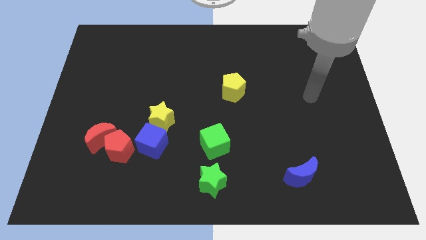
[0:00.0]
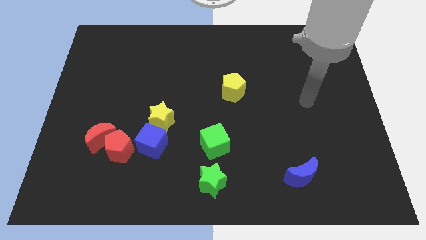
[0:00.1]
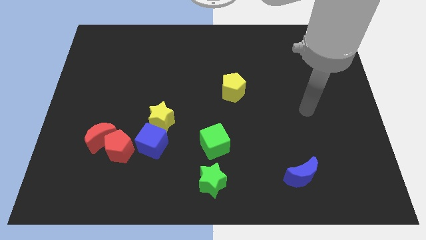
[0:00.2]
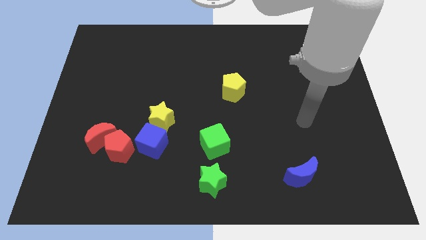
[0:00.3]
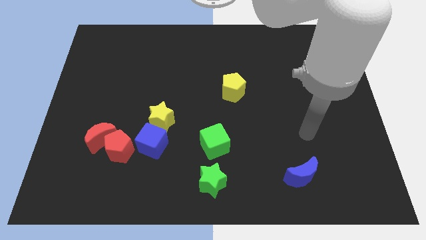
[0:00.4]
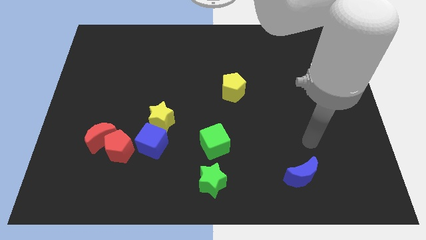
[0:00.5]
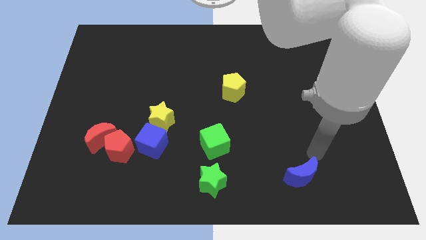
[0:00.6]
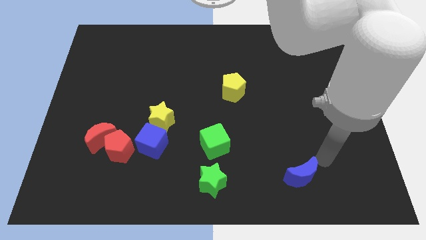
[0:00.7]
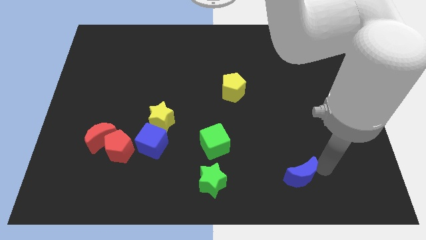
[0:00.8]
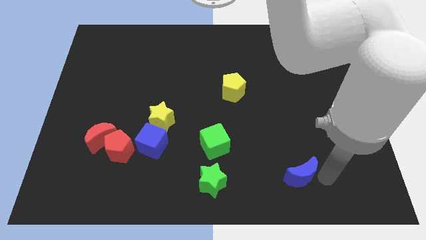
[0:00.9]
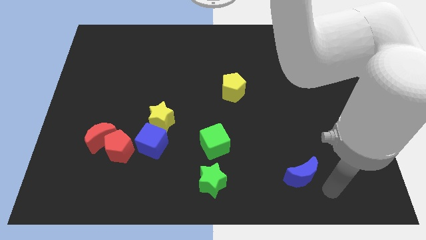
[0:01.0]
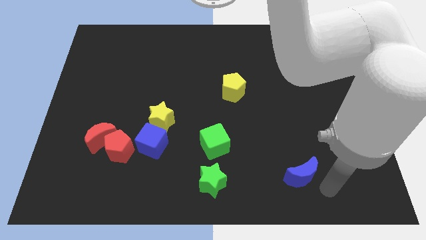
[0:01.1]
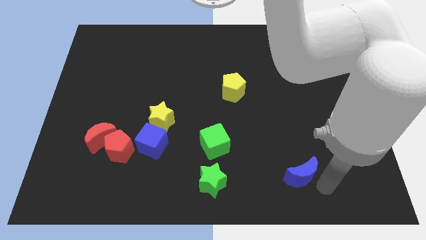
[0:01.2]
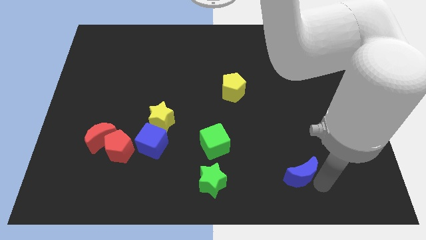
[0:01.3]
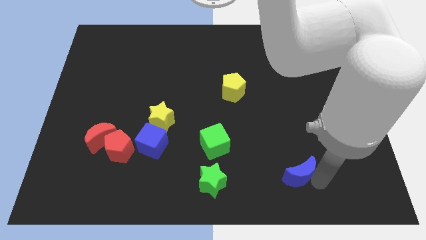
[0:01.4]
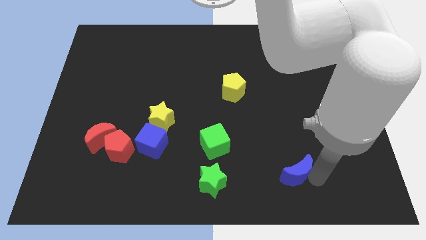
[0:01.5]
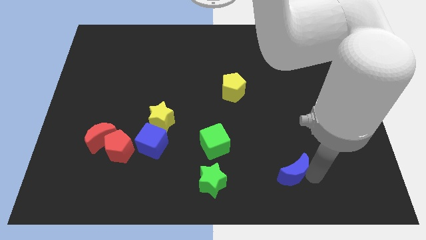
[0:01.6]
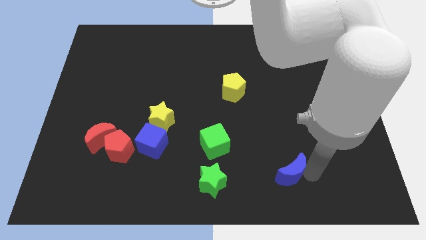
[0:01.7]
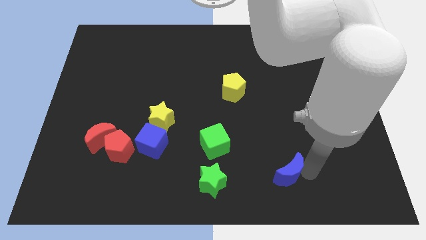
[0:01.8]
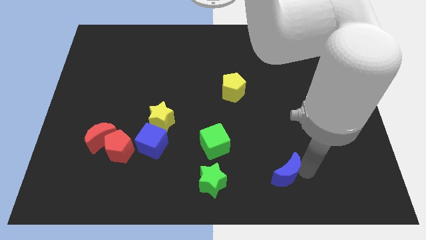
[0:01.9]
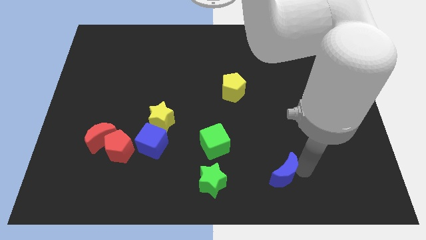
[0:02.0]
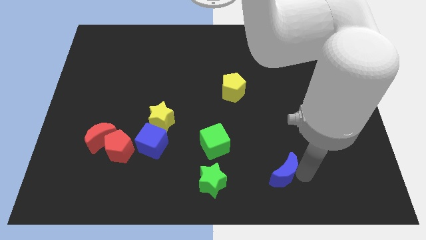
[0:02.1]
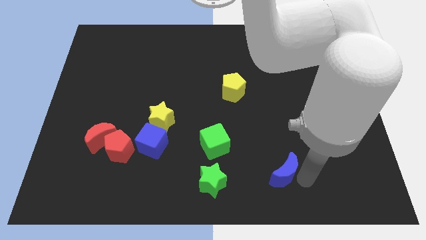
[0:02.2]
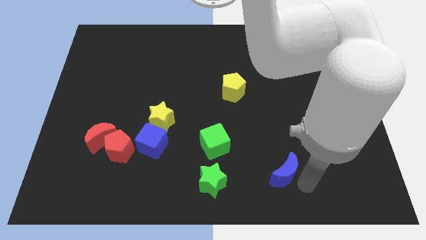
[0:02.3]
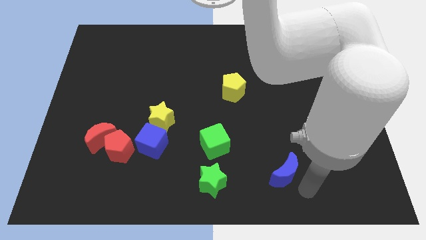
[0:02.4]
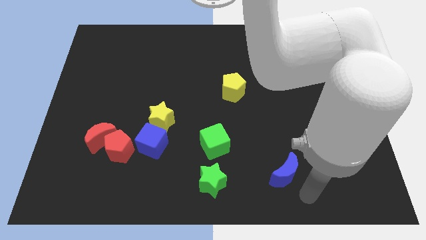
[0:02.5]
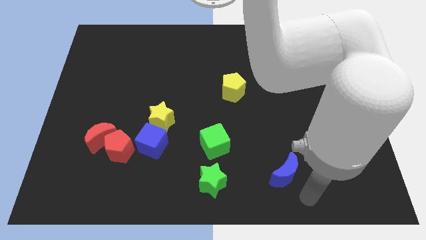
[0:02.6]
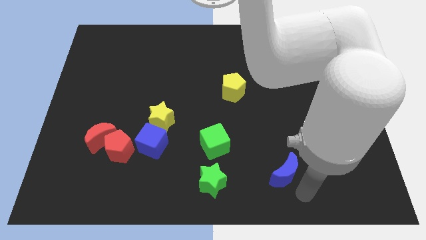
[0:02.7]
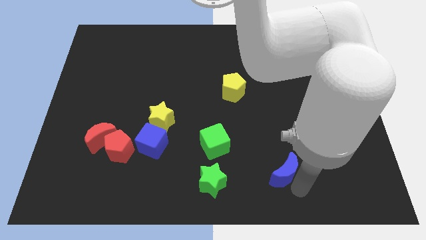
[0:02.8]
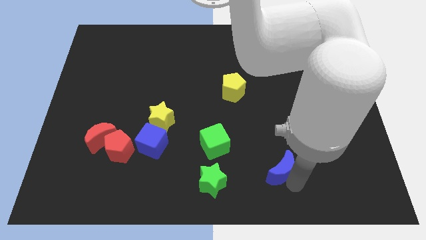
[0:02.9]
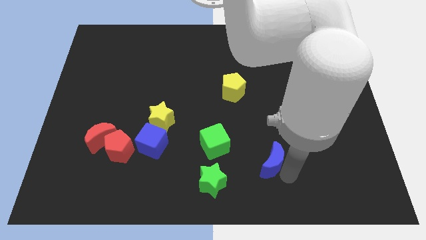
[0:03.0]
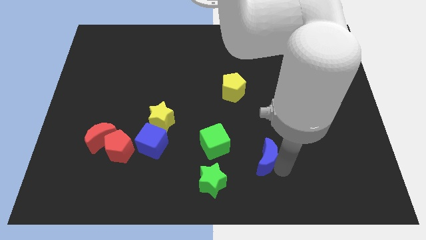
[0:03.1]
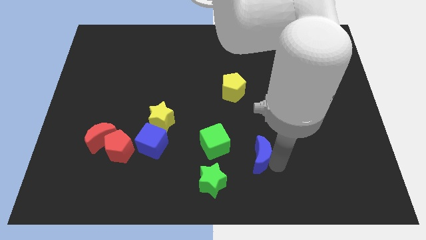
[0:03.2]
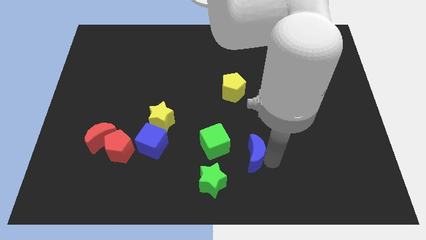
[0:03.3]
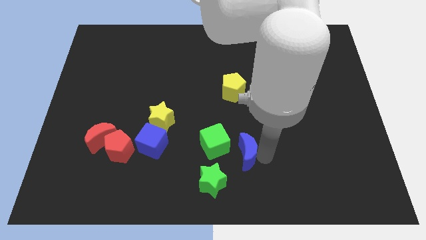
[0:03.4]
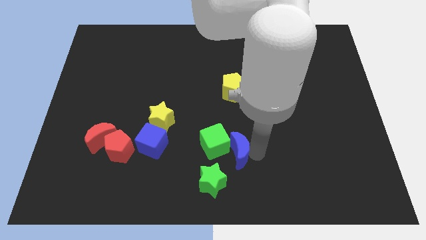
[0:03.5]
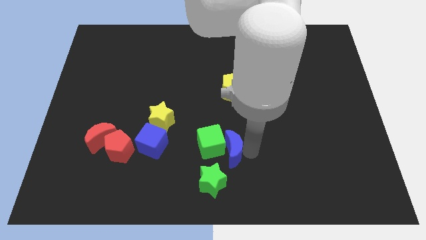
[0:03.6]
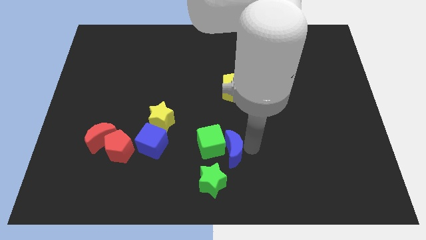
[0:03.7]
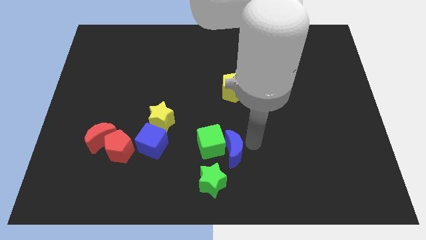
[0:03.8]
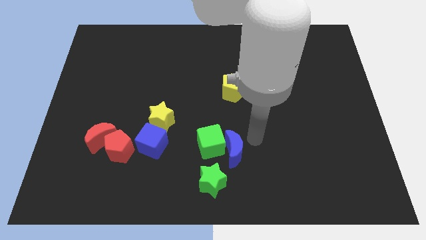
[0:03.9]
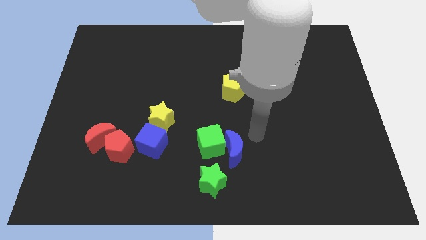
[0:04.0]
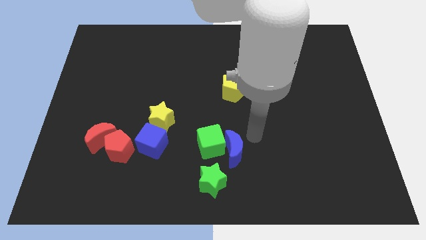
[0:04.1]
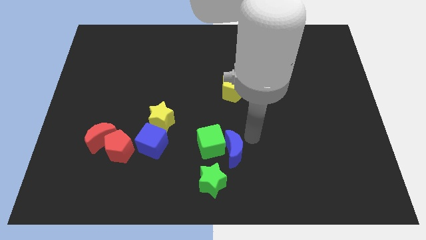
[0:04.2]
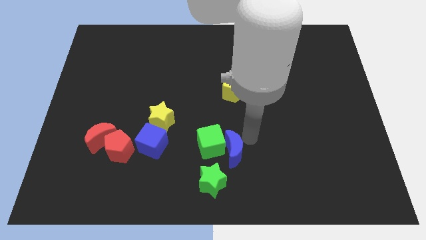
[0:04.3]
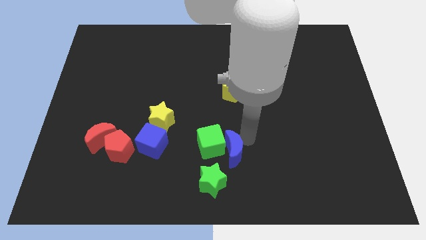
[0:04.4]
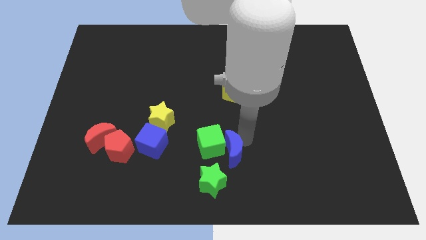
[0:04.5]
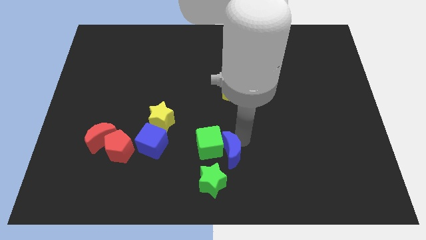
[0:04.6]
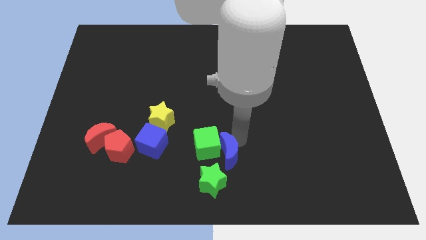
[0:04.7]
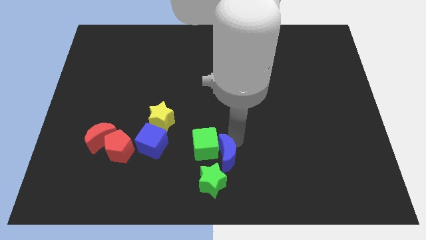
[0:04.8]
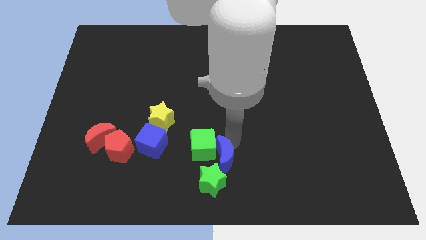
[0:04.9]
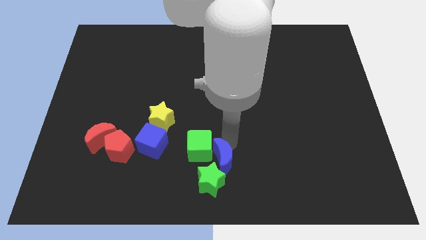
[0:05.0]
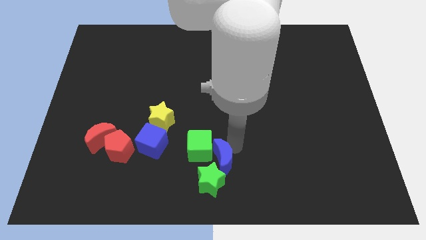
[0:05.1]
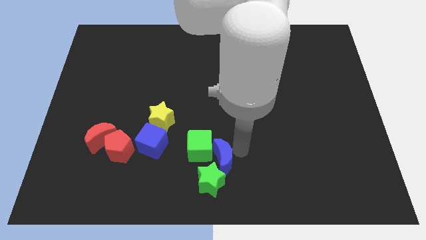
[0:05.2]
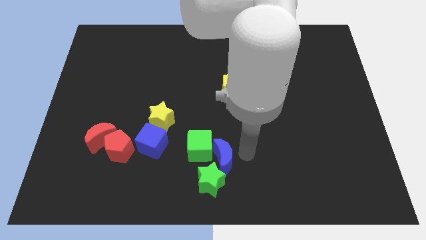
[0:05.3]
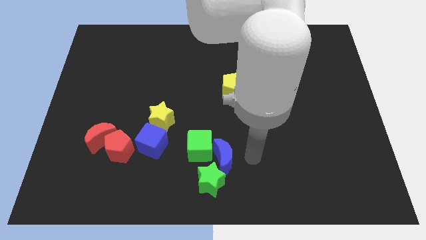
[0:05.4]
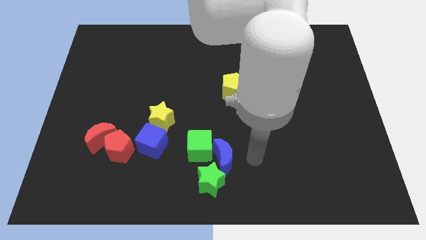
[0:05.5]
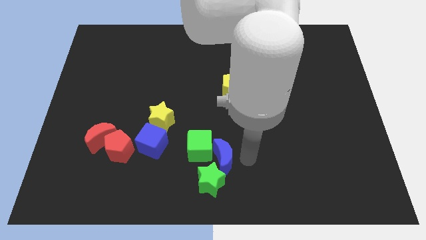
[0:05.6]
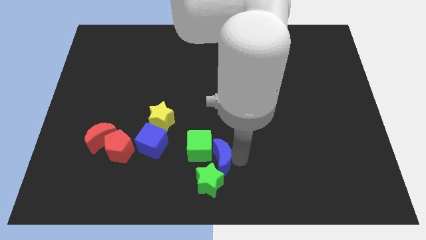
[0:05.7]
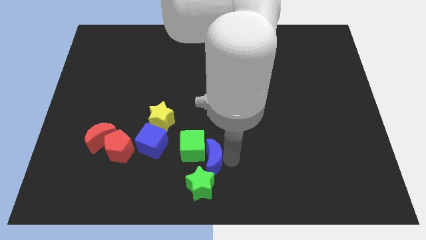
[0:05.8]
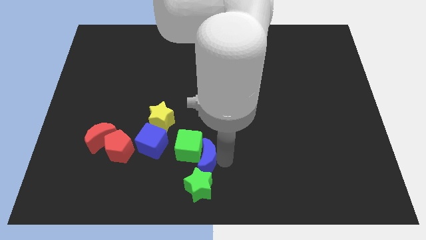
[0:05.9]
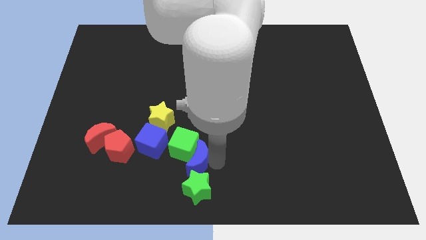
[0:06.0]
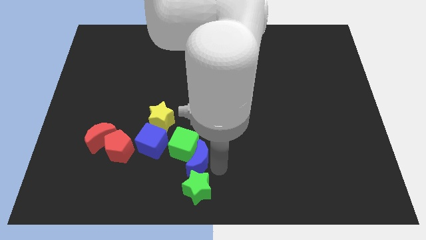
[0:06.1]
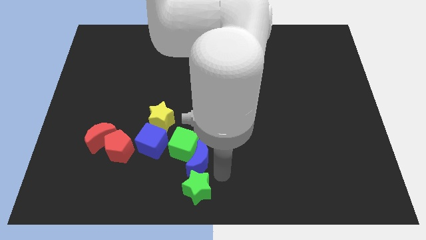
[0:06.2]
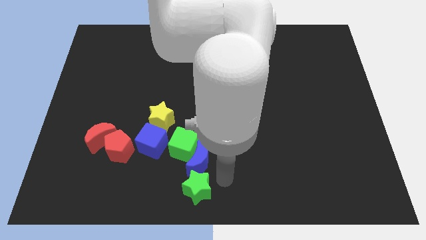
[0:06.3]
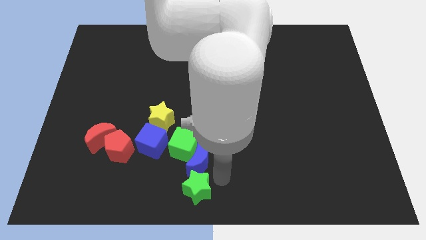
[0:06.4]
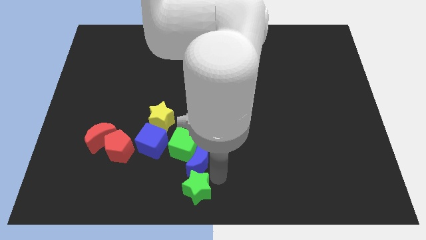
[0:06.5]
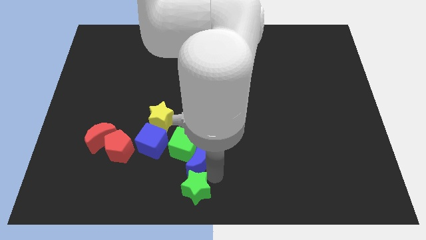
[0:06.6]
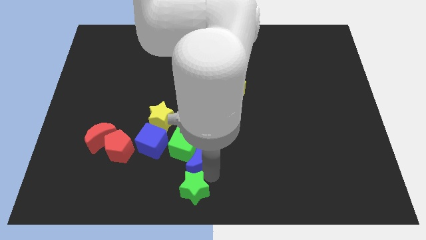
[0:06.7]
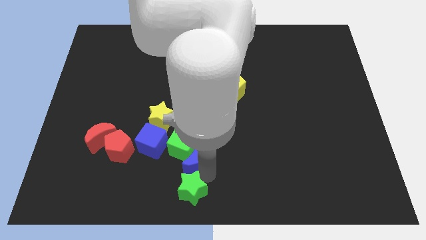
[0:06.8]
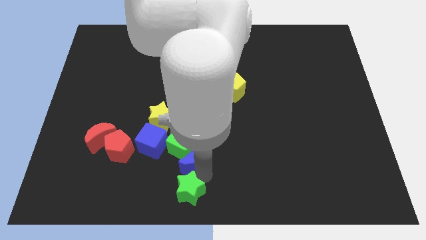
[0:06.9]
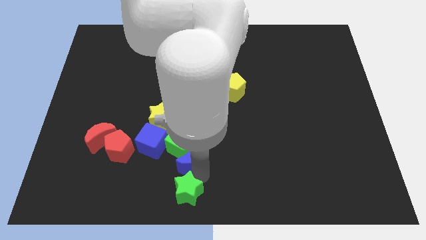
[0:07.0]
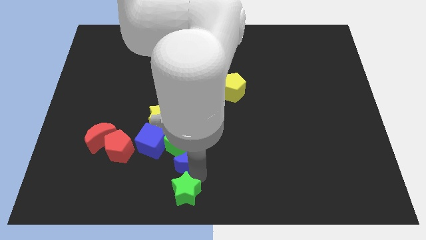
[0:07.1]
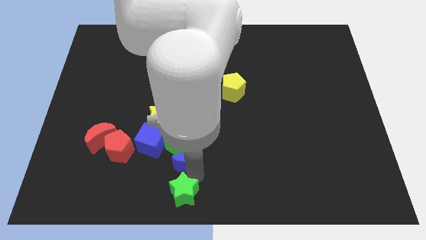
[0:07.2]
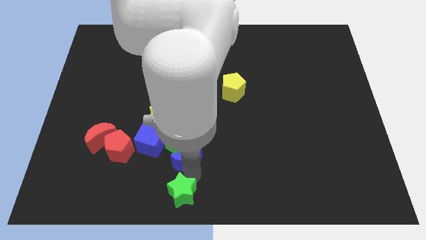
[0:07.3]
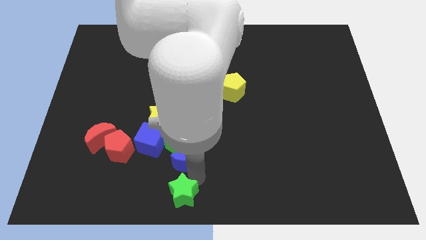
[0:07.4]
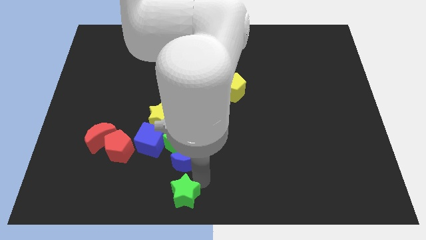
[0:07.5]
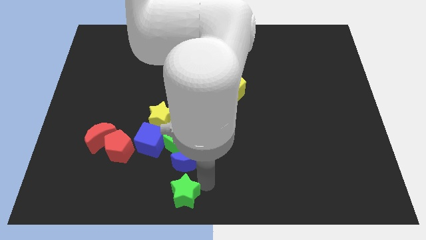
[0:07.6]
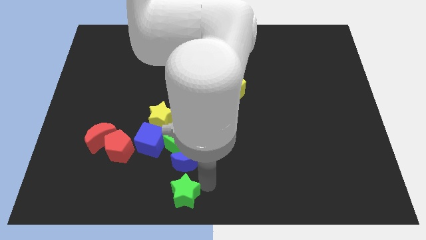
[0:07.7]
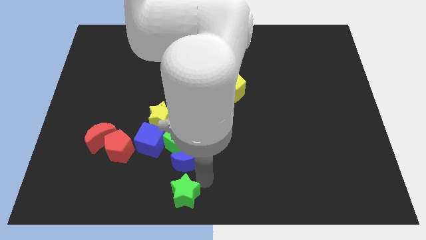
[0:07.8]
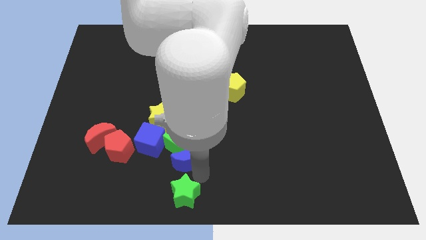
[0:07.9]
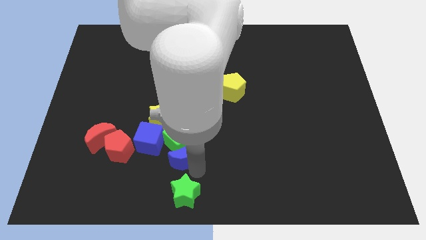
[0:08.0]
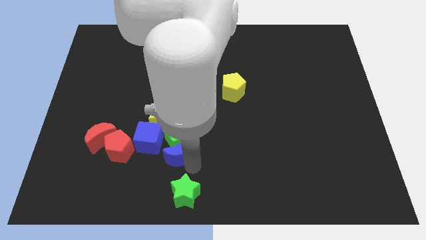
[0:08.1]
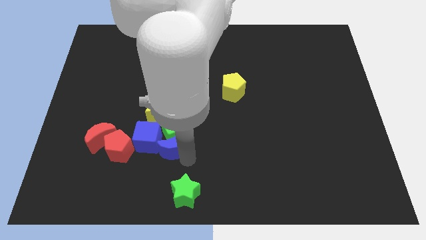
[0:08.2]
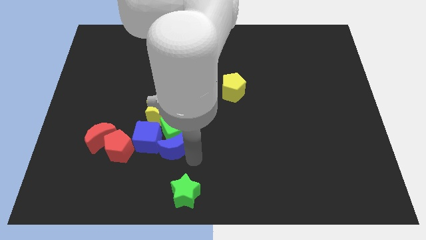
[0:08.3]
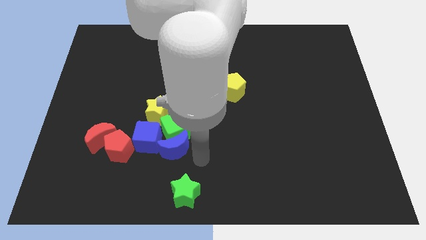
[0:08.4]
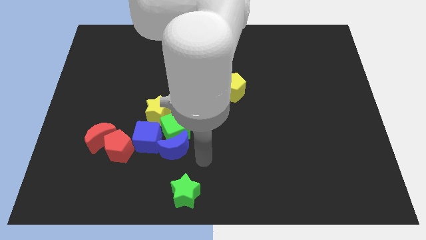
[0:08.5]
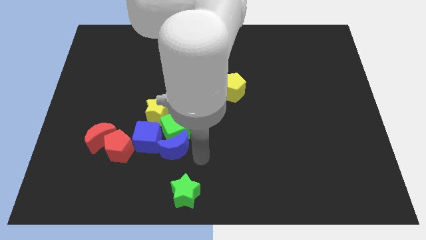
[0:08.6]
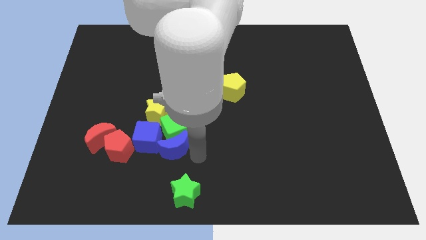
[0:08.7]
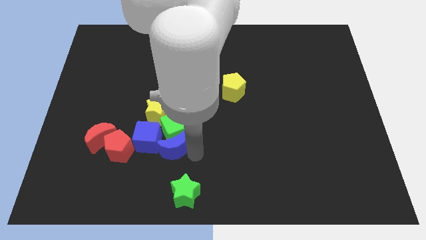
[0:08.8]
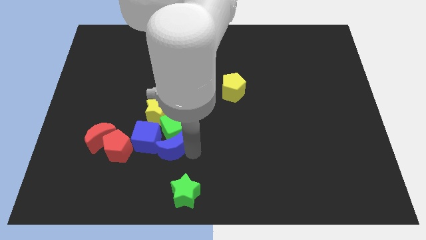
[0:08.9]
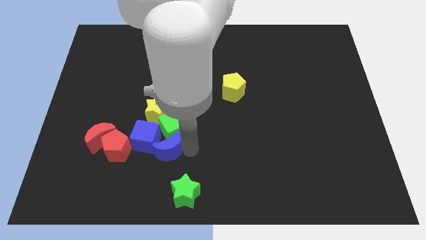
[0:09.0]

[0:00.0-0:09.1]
slide the blue moon towards the blue cube
